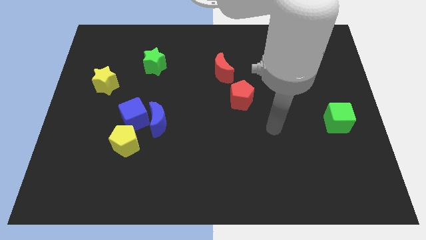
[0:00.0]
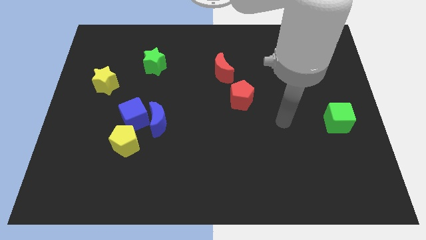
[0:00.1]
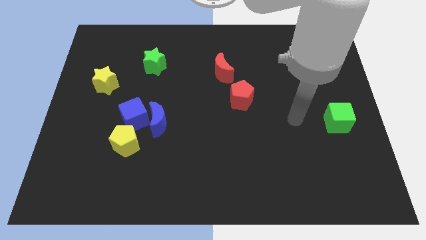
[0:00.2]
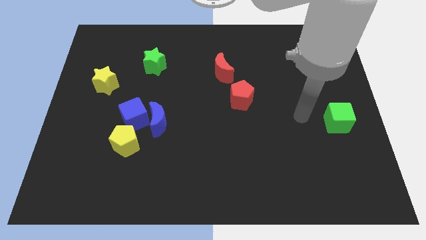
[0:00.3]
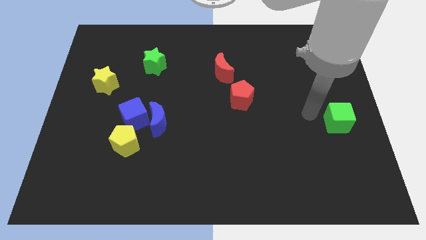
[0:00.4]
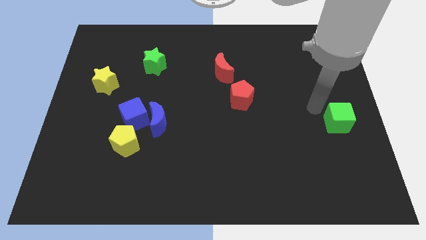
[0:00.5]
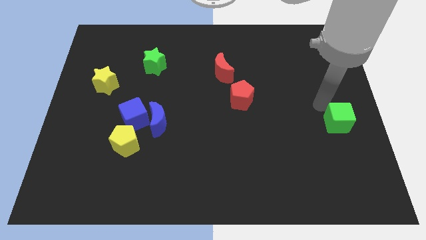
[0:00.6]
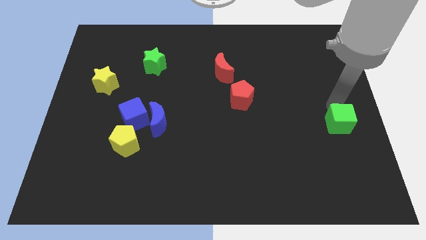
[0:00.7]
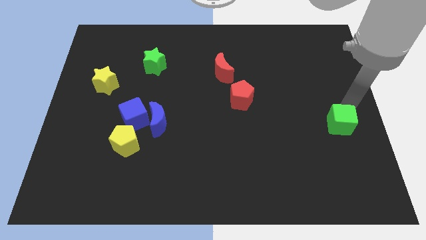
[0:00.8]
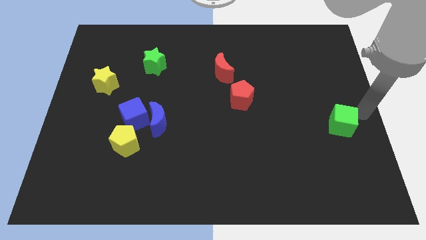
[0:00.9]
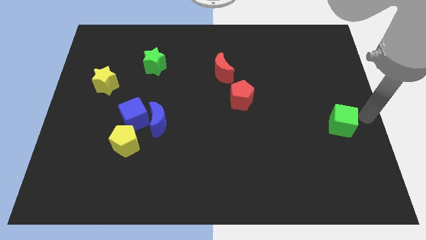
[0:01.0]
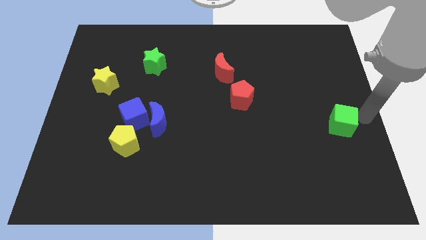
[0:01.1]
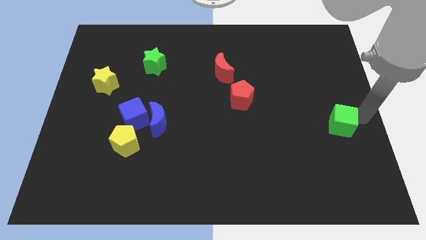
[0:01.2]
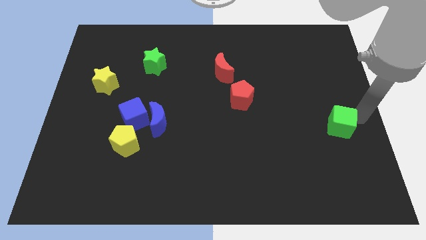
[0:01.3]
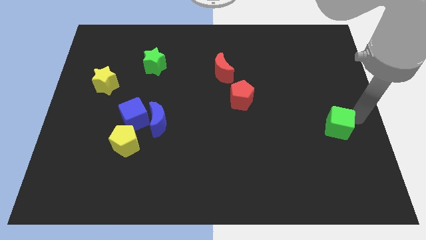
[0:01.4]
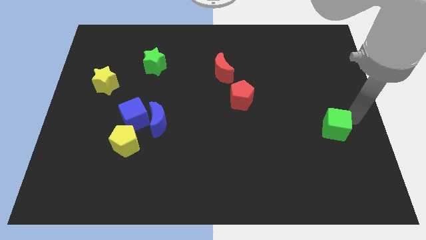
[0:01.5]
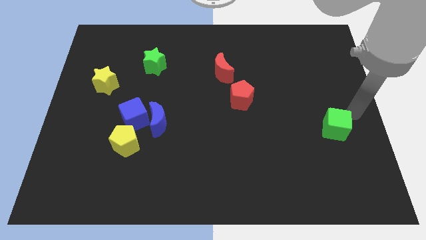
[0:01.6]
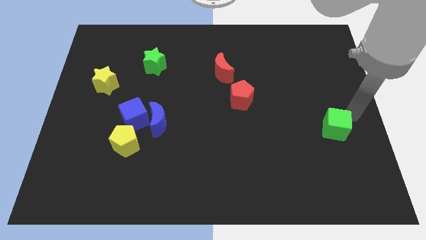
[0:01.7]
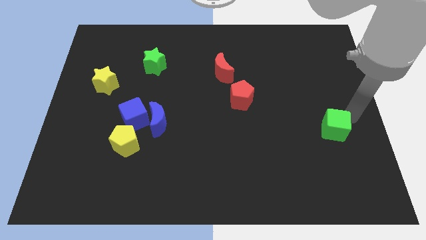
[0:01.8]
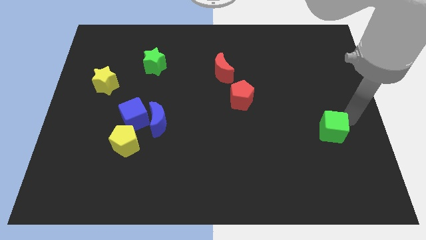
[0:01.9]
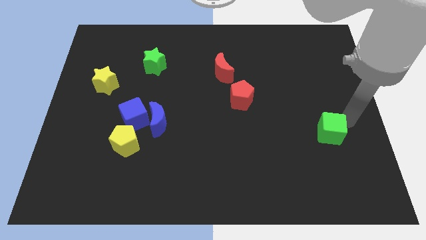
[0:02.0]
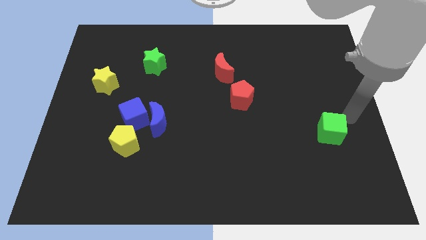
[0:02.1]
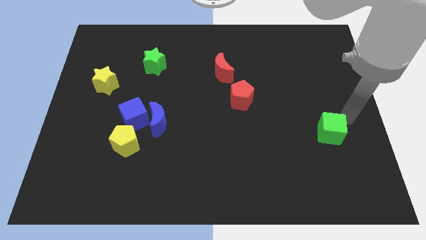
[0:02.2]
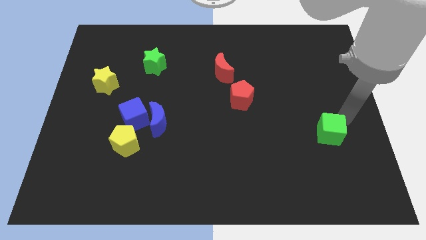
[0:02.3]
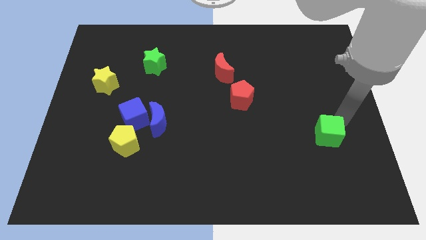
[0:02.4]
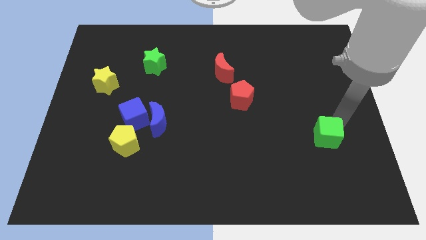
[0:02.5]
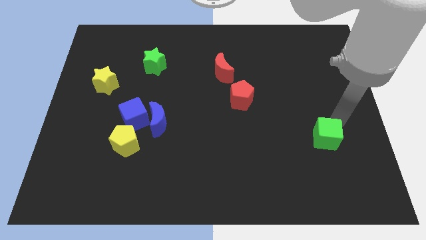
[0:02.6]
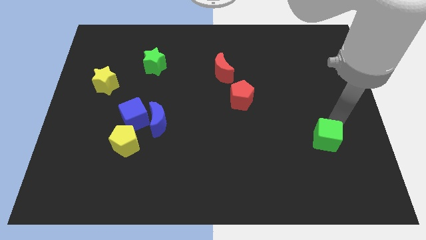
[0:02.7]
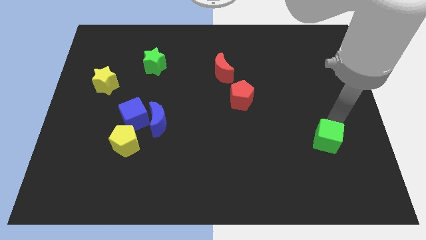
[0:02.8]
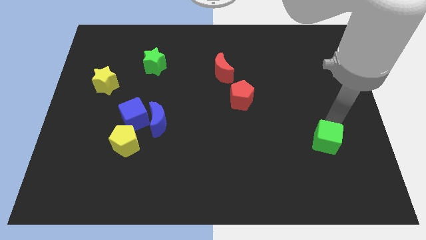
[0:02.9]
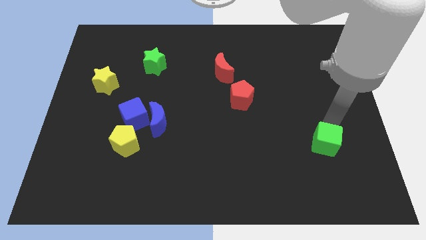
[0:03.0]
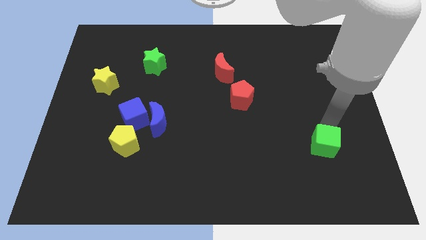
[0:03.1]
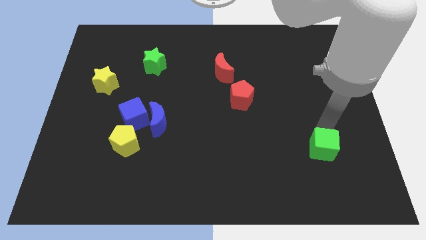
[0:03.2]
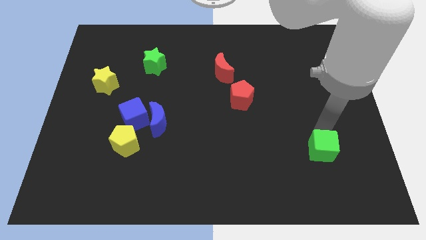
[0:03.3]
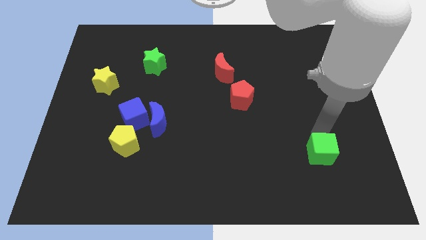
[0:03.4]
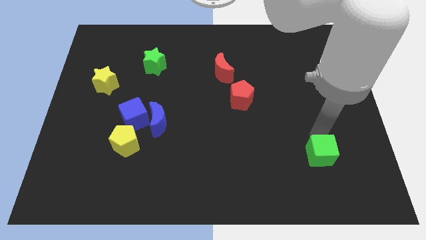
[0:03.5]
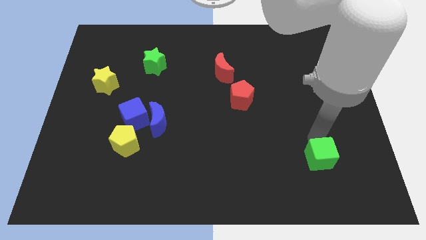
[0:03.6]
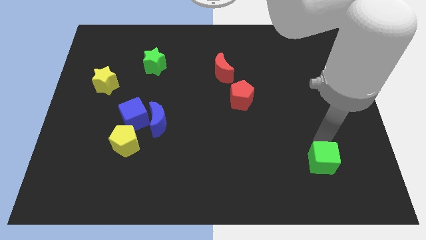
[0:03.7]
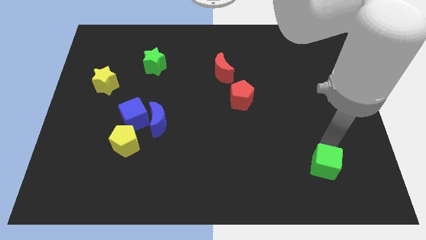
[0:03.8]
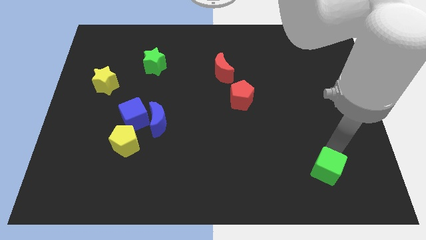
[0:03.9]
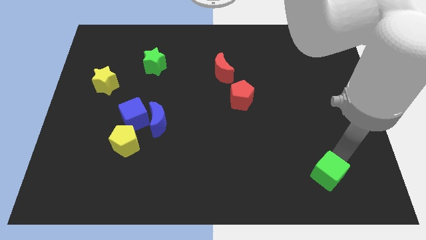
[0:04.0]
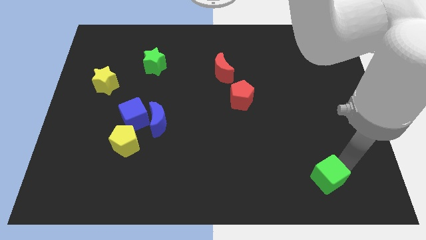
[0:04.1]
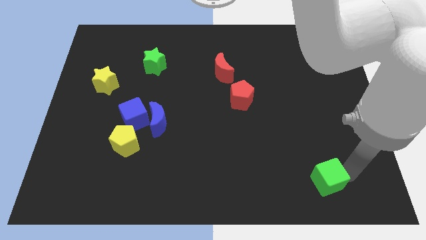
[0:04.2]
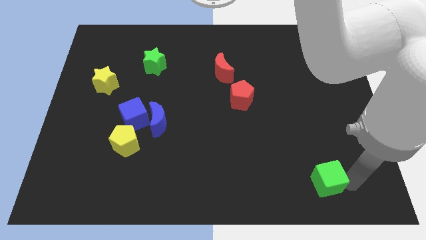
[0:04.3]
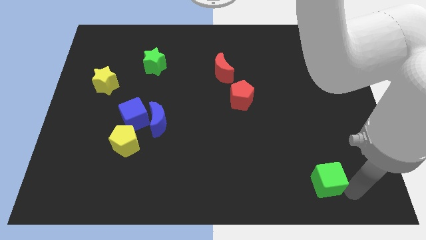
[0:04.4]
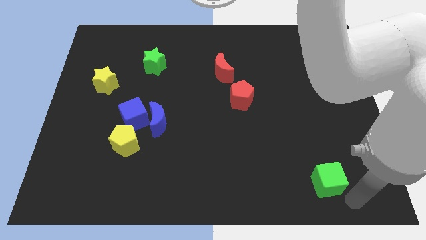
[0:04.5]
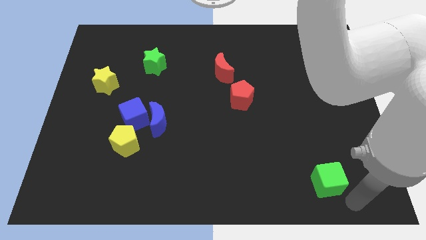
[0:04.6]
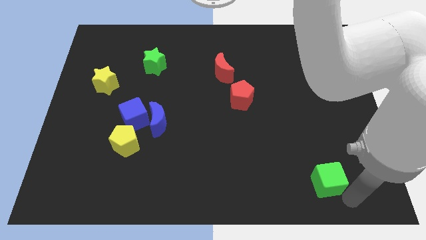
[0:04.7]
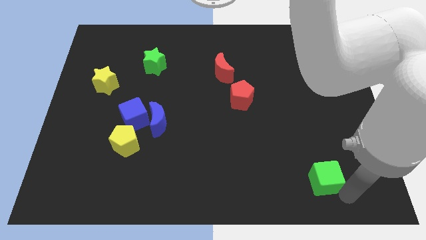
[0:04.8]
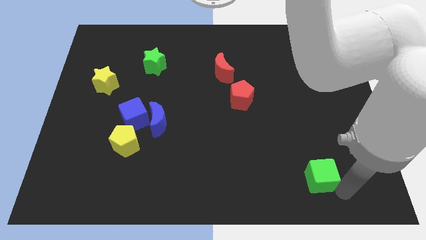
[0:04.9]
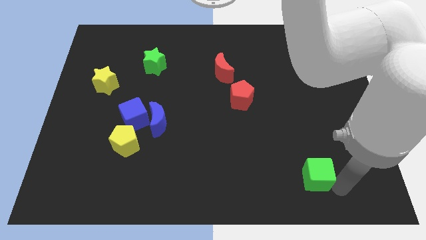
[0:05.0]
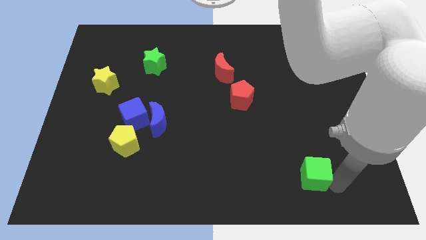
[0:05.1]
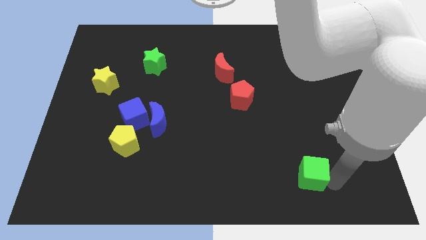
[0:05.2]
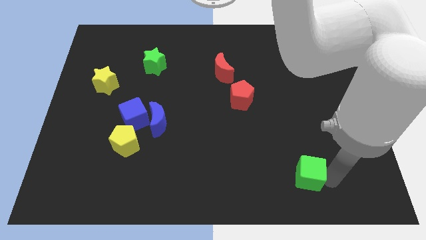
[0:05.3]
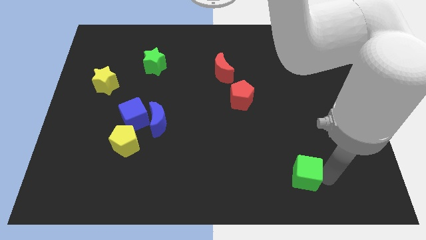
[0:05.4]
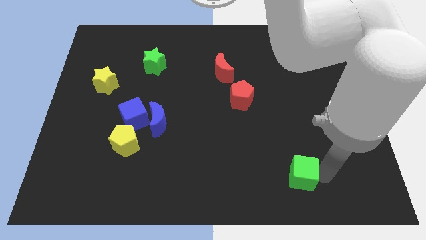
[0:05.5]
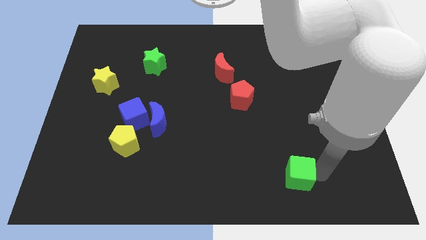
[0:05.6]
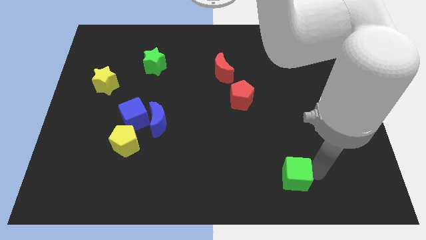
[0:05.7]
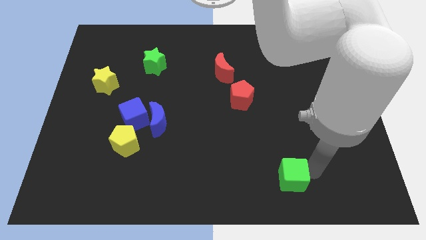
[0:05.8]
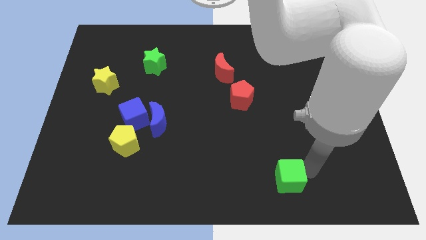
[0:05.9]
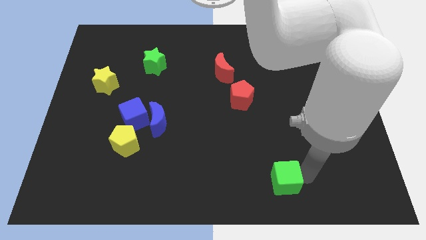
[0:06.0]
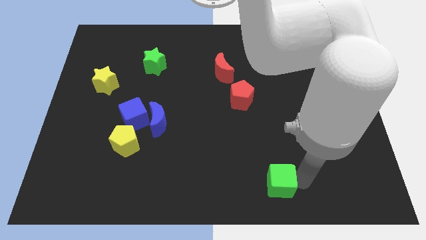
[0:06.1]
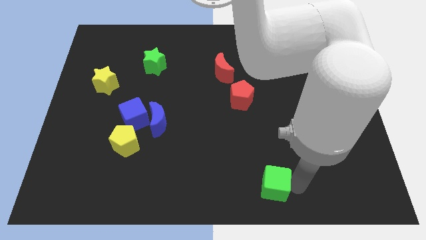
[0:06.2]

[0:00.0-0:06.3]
slide the green cube to the bottom side

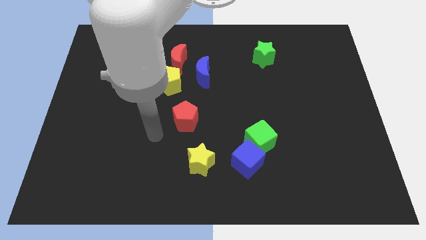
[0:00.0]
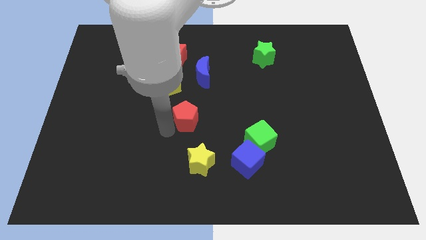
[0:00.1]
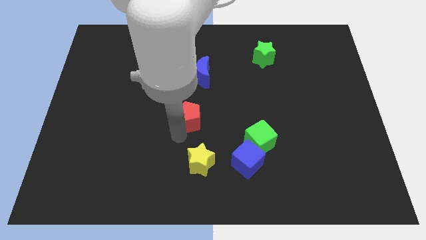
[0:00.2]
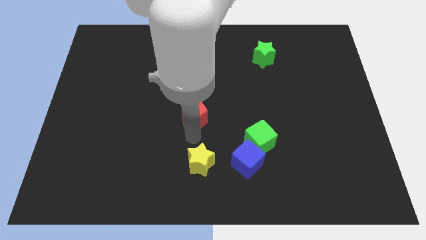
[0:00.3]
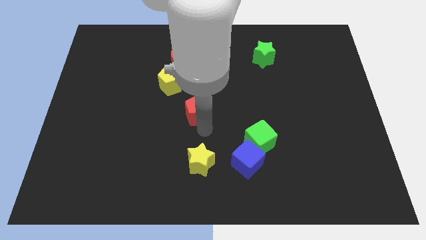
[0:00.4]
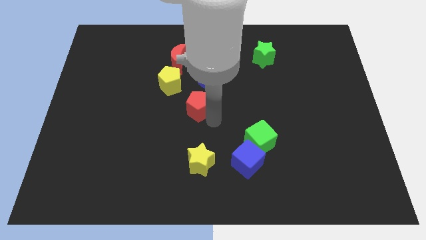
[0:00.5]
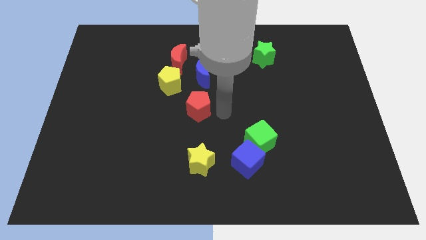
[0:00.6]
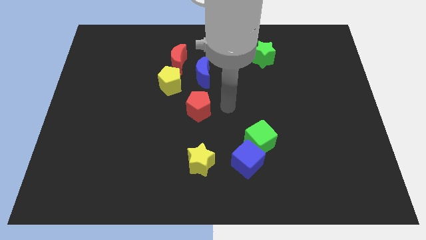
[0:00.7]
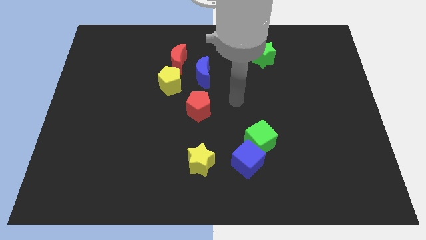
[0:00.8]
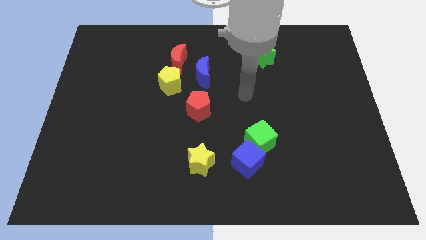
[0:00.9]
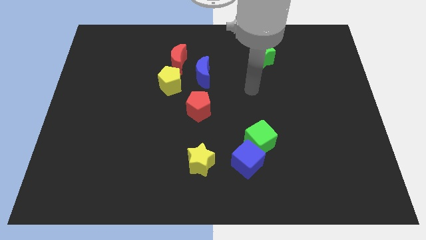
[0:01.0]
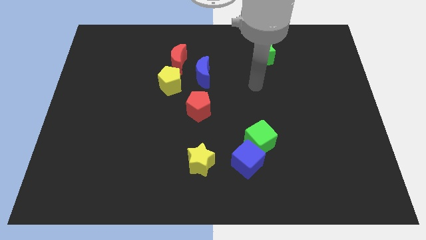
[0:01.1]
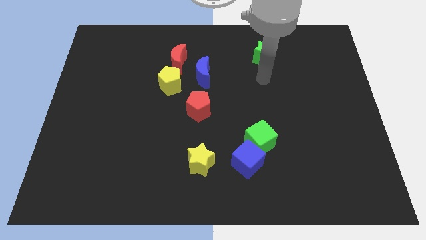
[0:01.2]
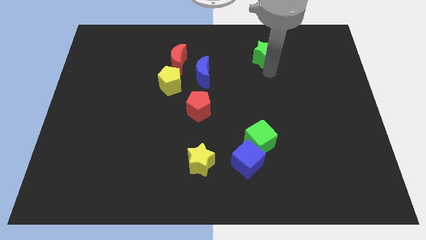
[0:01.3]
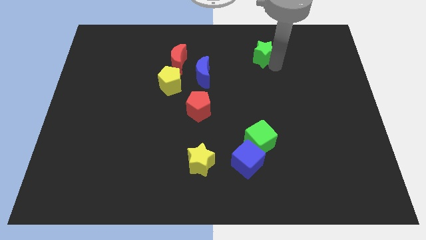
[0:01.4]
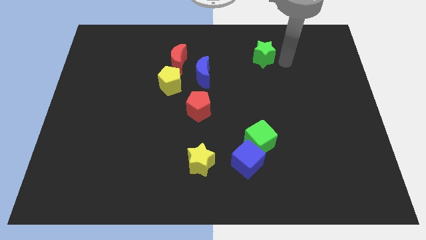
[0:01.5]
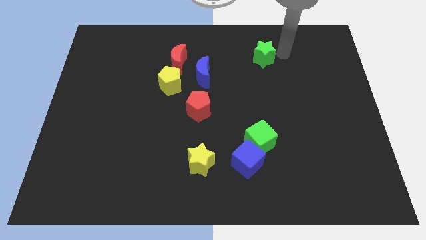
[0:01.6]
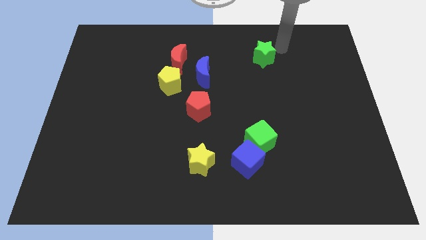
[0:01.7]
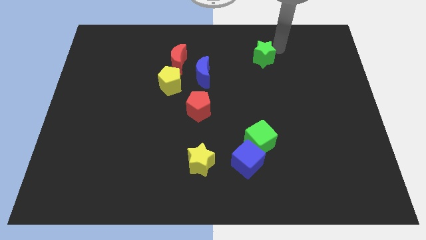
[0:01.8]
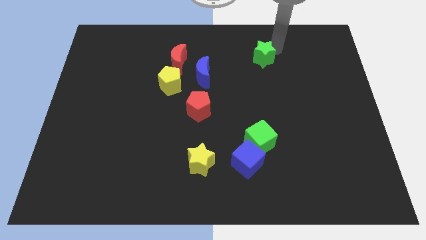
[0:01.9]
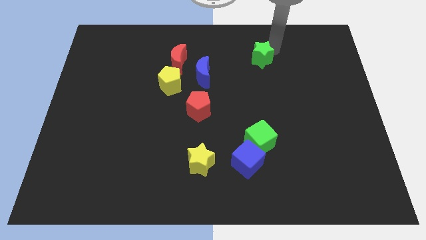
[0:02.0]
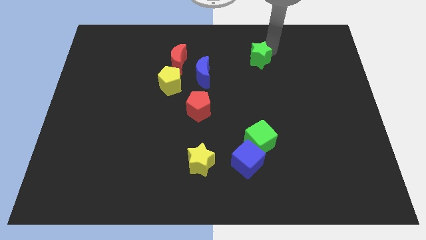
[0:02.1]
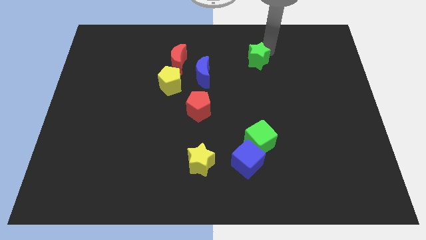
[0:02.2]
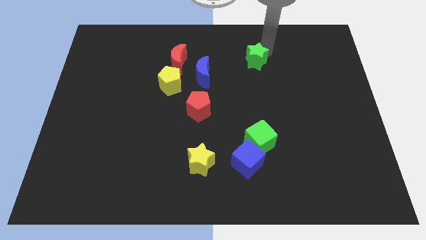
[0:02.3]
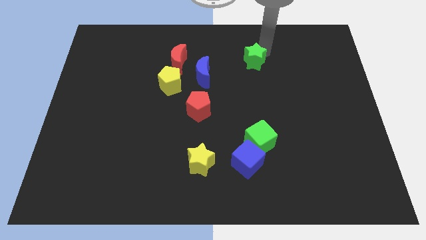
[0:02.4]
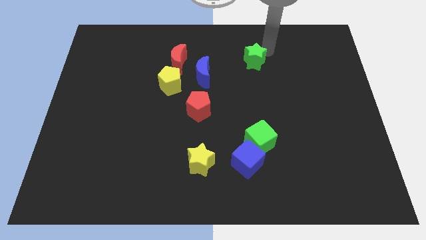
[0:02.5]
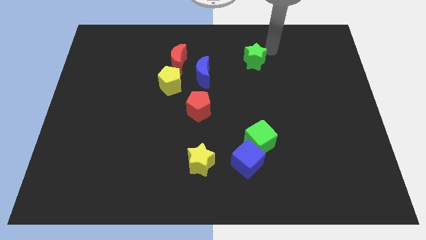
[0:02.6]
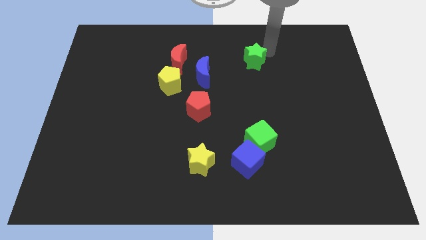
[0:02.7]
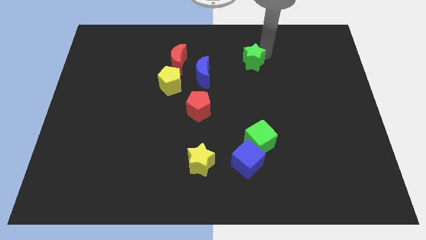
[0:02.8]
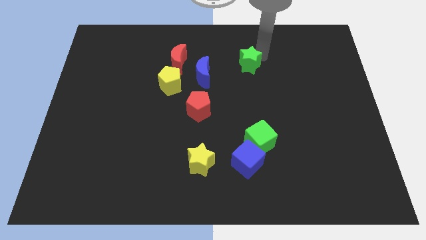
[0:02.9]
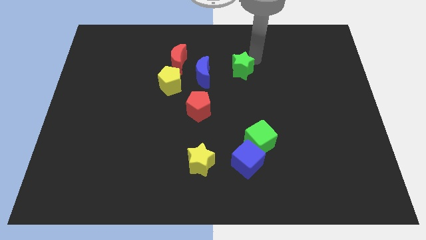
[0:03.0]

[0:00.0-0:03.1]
push the green star to the middle
